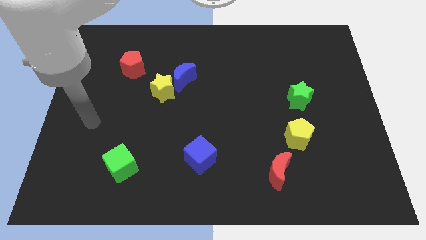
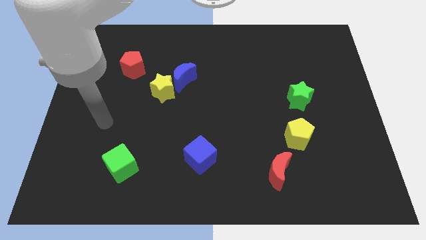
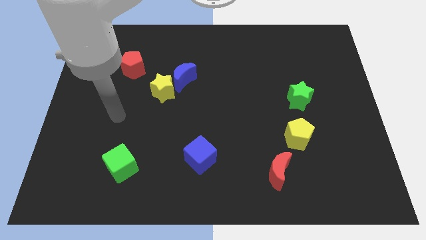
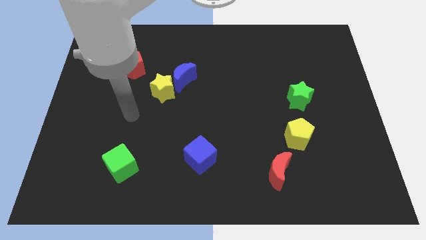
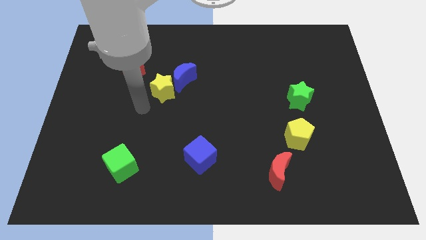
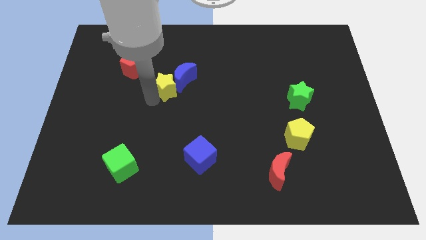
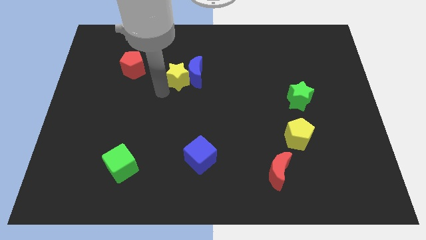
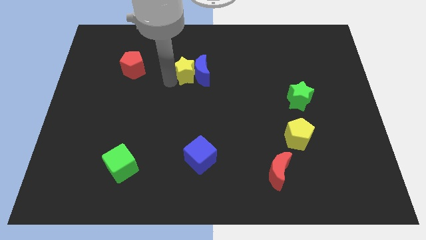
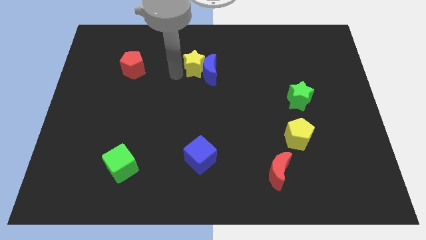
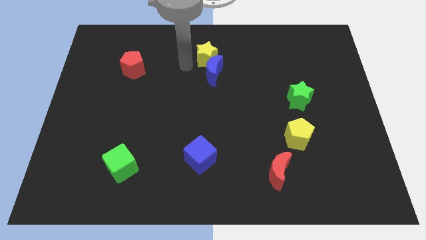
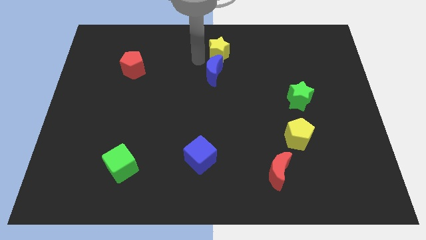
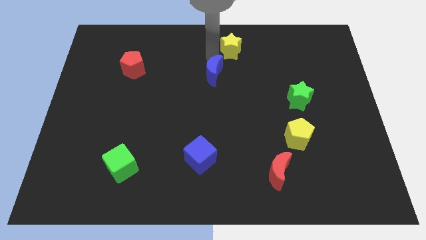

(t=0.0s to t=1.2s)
separate the blue moon from the yellow star

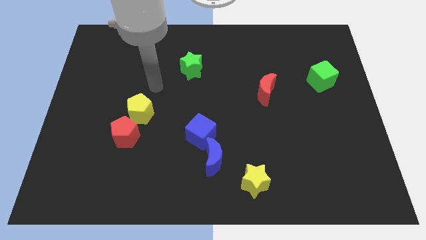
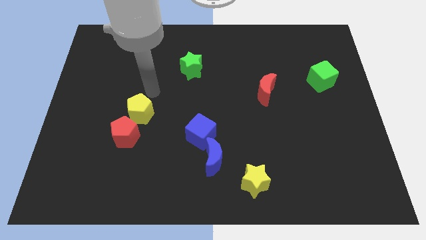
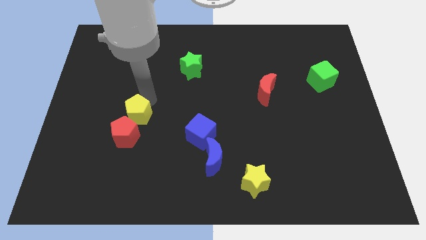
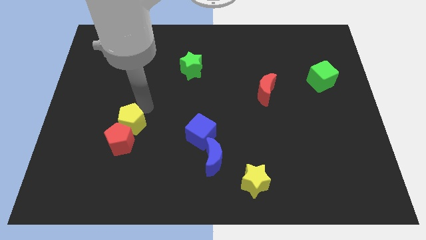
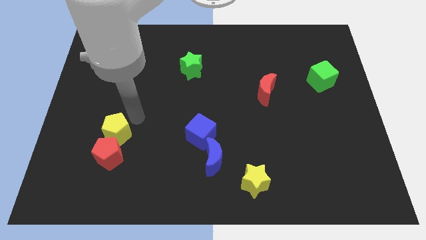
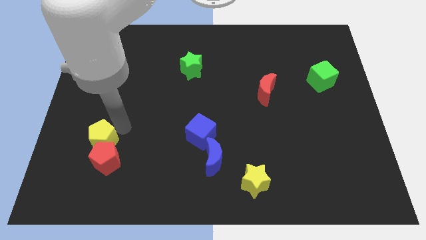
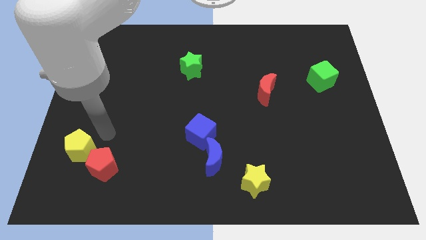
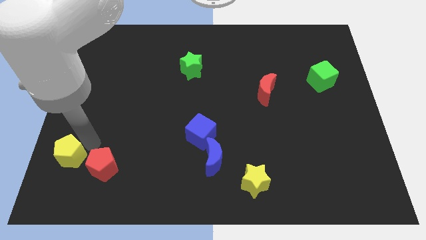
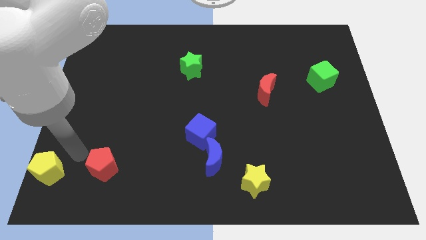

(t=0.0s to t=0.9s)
separate the red pentagon from the yellow pentagon

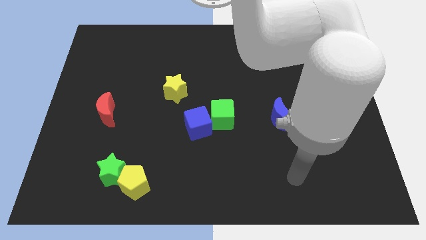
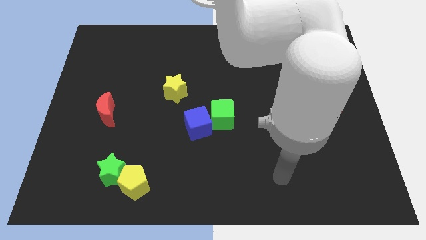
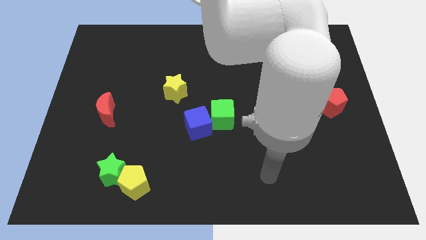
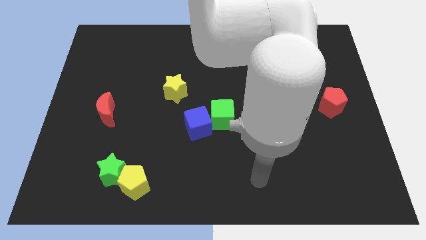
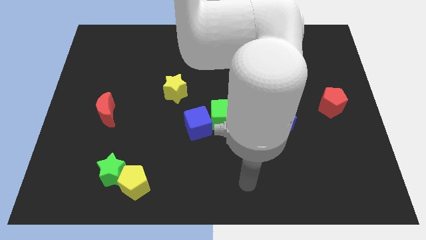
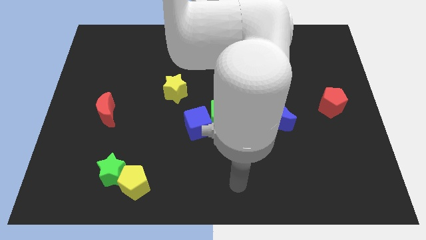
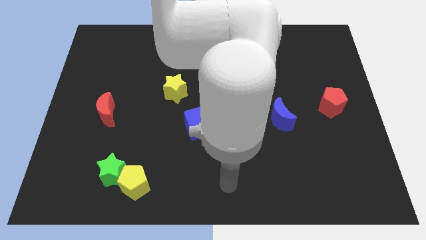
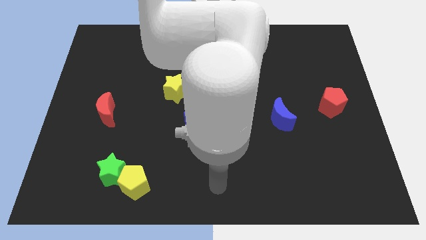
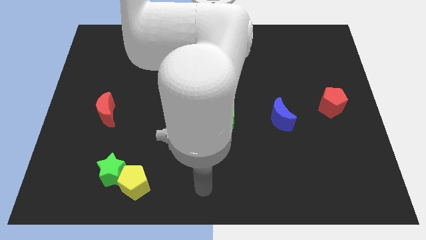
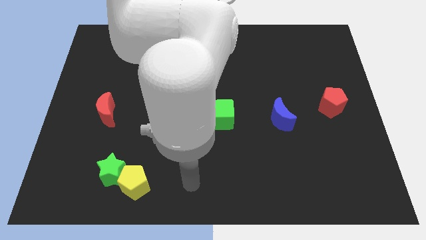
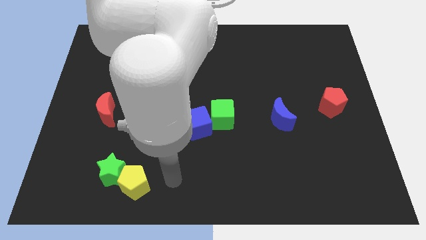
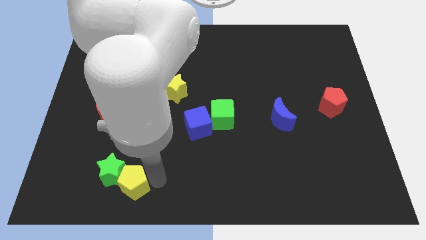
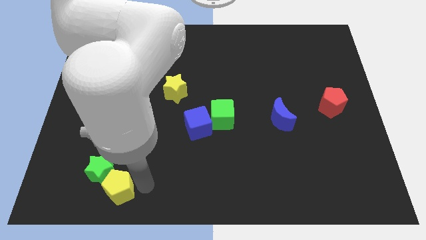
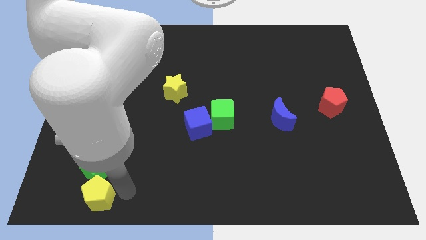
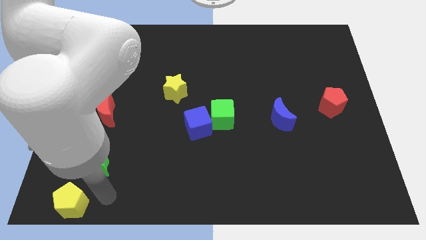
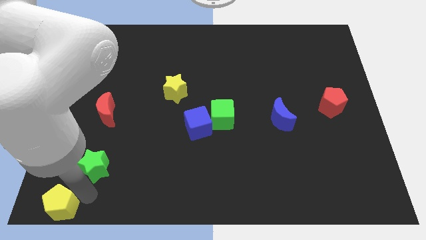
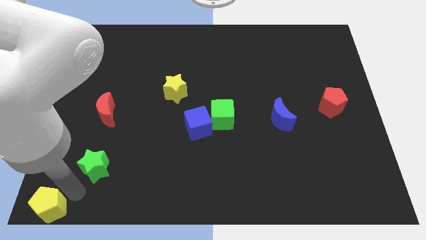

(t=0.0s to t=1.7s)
move the green star away from the yellow pentagon

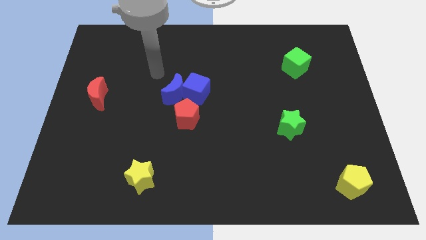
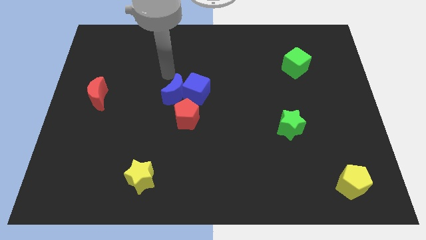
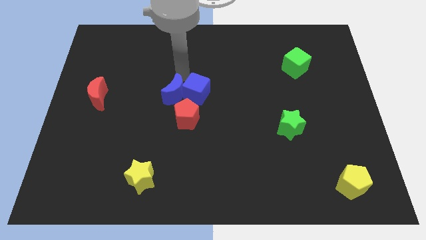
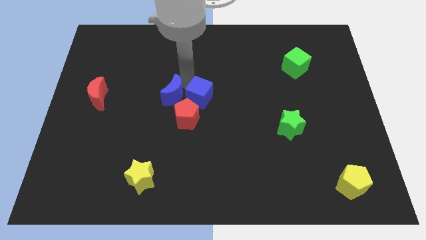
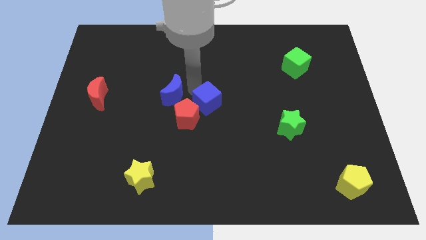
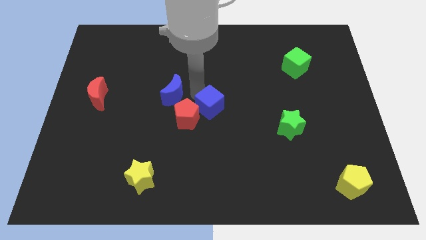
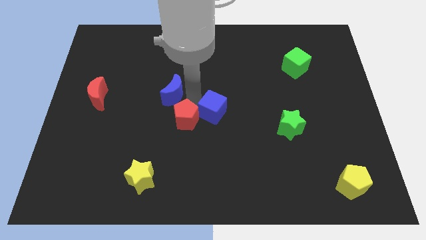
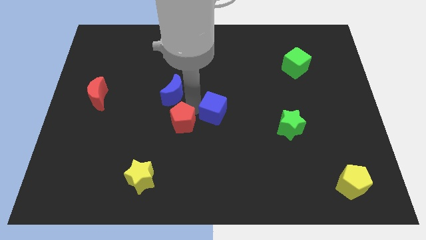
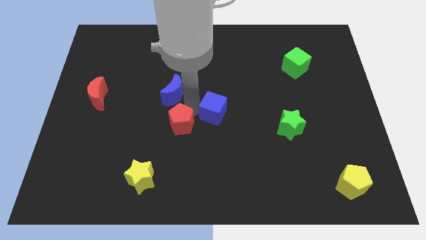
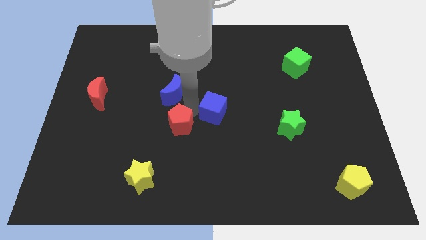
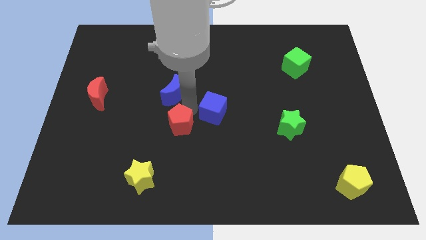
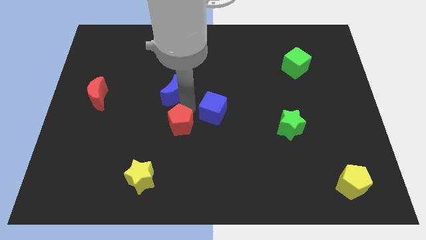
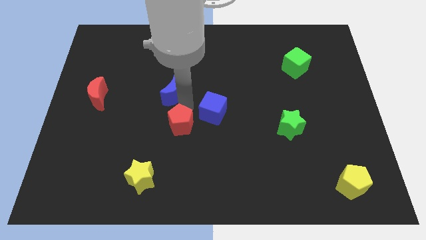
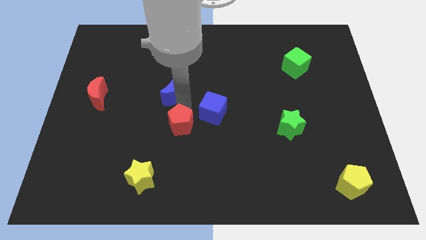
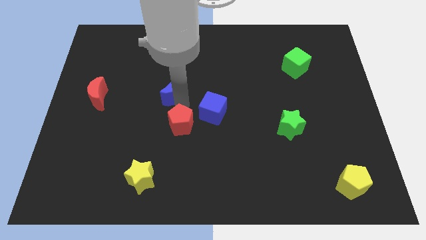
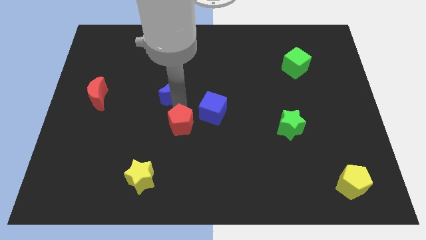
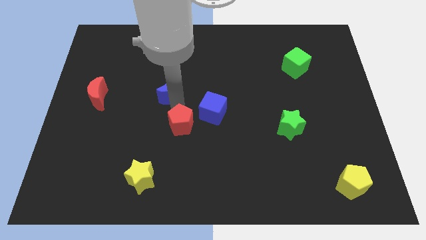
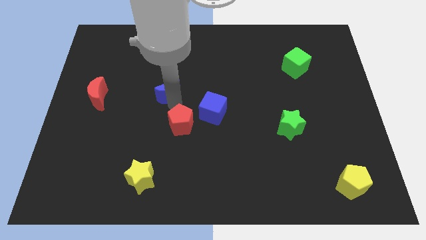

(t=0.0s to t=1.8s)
pull the blue moon apart from the blue cube and red pentagon

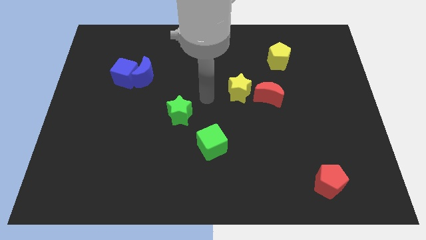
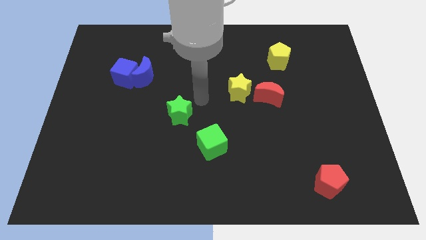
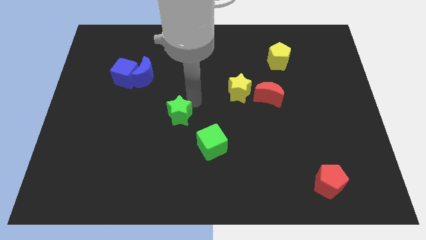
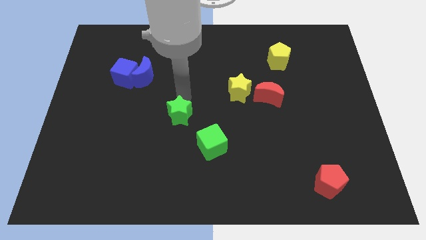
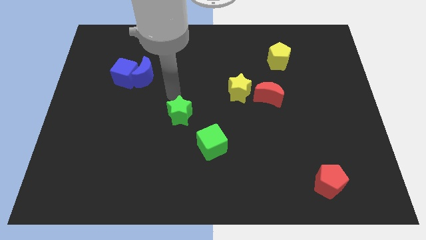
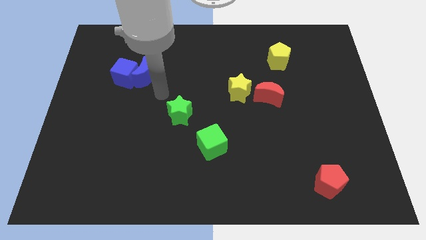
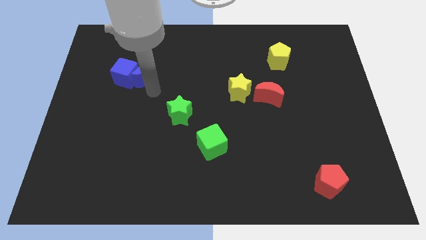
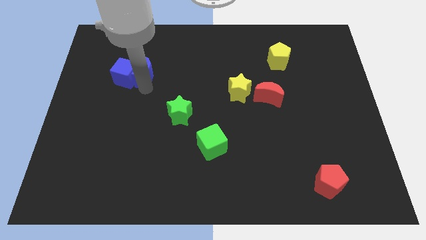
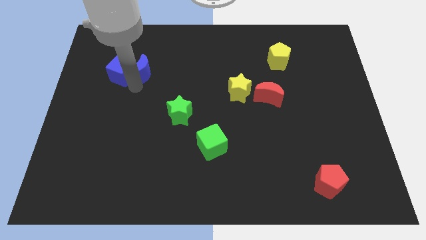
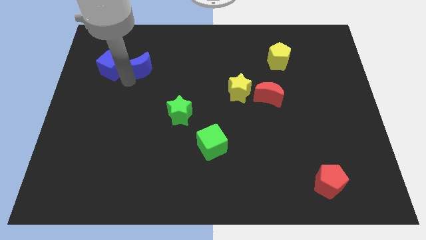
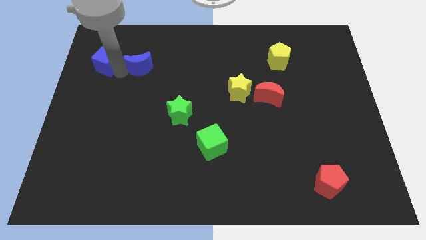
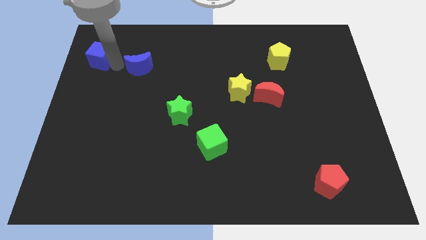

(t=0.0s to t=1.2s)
move the blue moon away from the blue cube

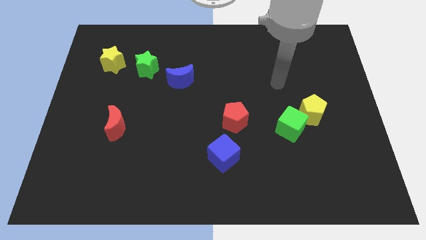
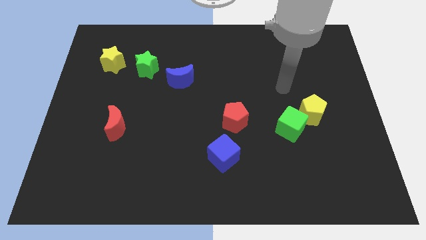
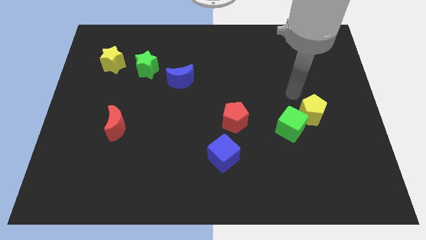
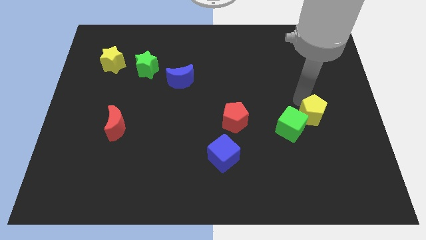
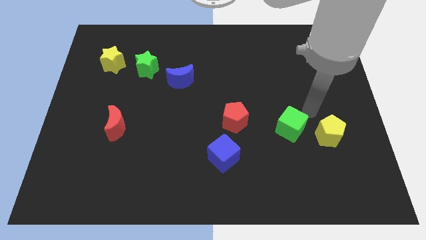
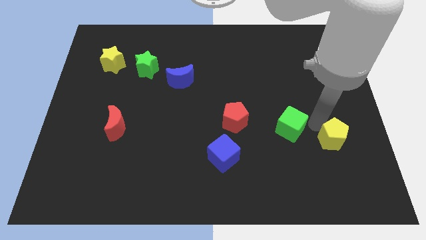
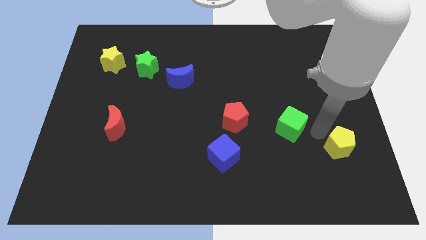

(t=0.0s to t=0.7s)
move the green cube away from the yellow pentagon

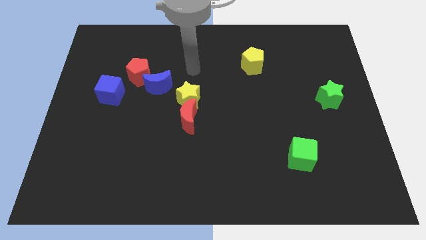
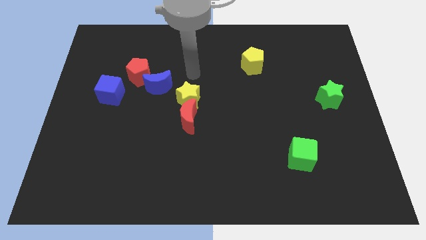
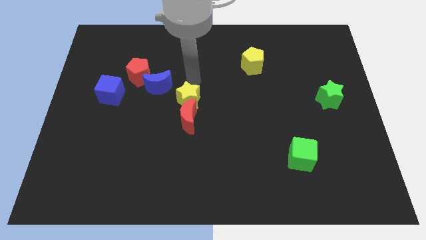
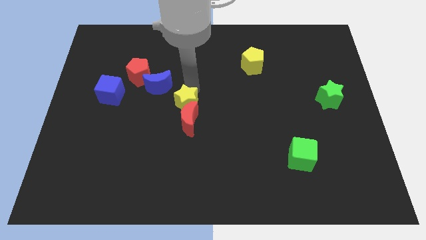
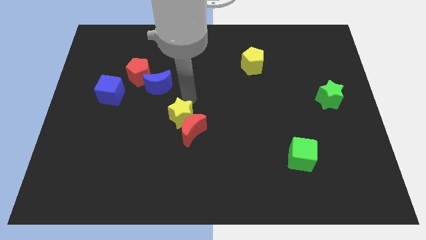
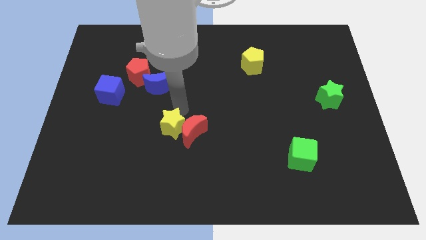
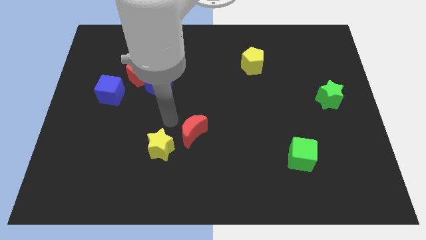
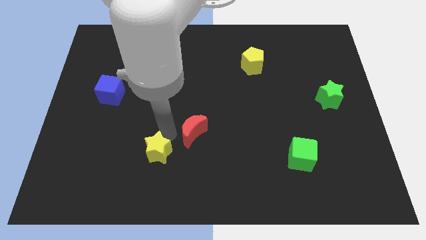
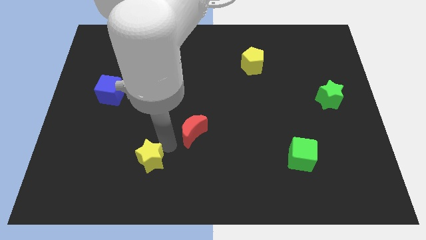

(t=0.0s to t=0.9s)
separate the red moon from the yellow star

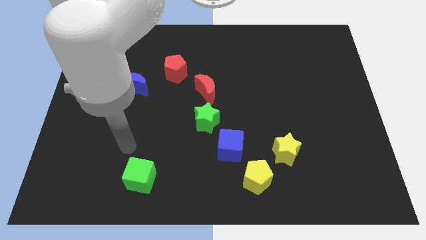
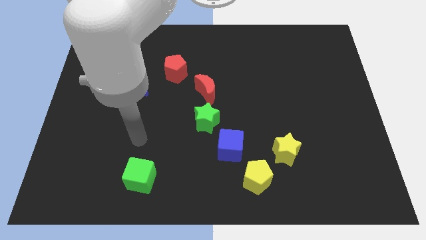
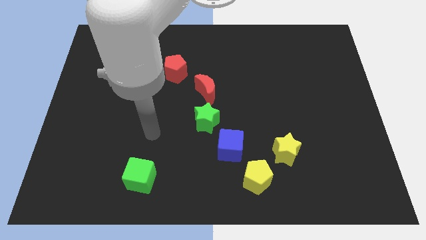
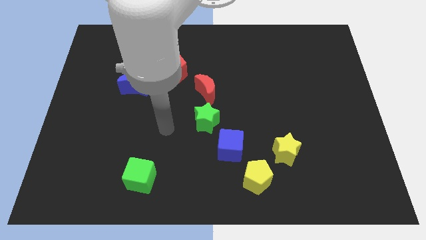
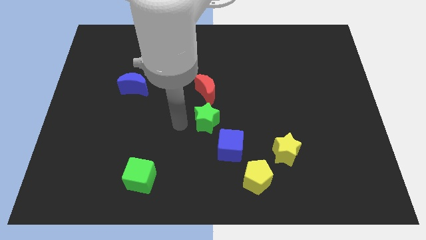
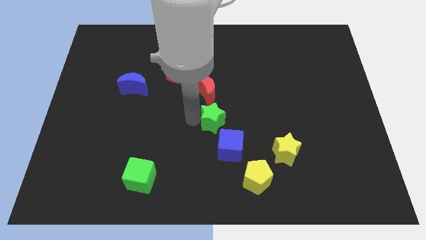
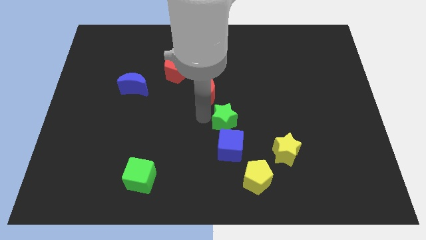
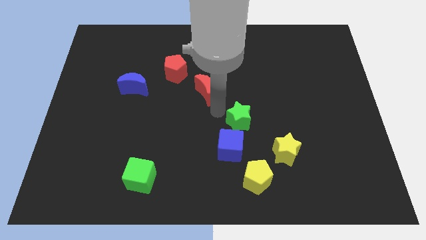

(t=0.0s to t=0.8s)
pull the red moon apart from the green star
